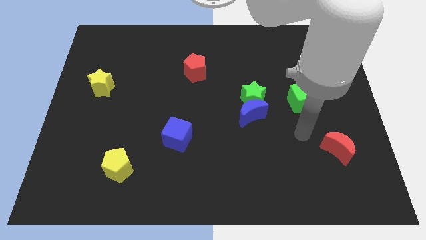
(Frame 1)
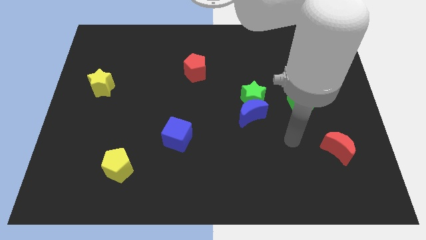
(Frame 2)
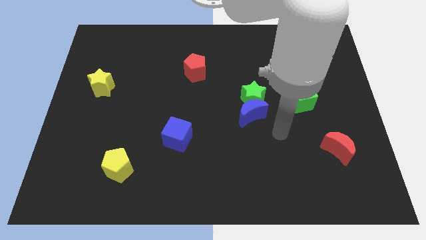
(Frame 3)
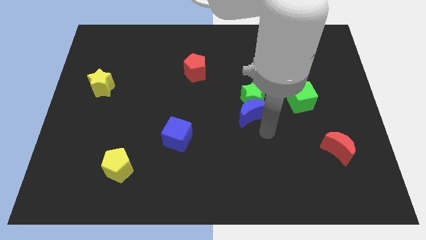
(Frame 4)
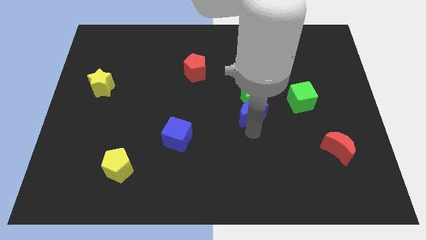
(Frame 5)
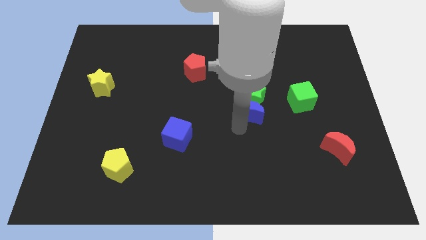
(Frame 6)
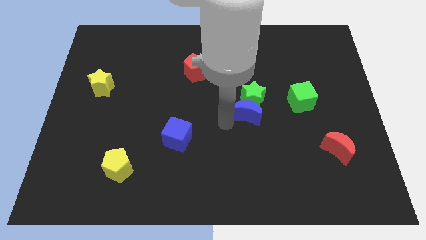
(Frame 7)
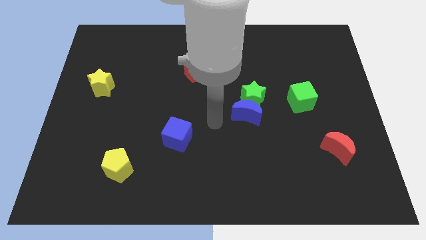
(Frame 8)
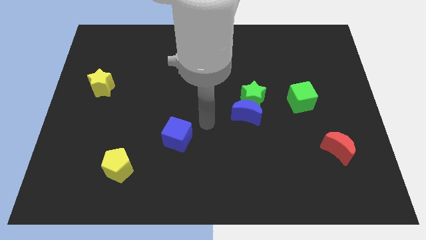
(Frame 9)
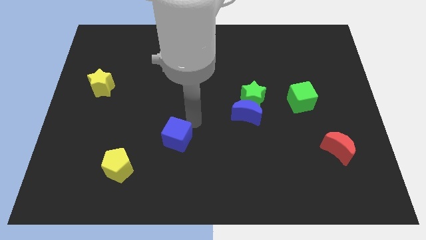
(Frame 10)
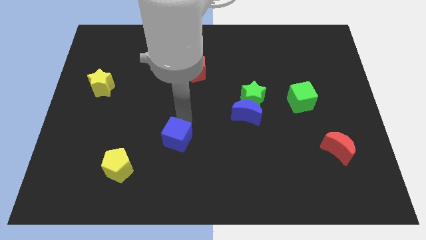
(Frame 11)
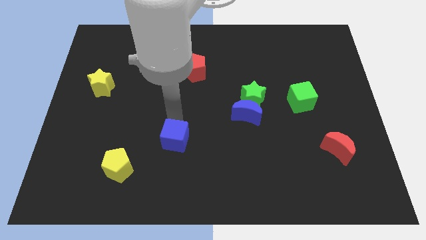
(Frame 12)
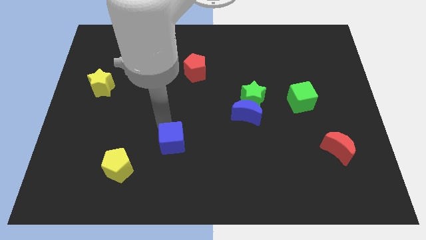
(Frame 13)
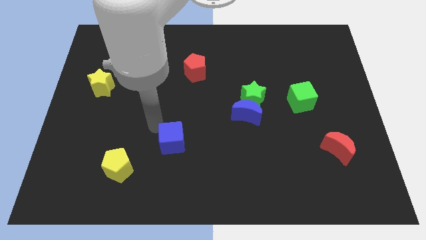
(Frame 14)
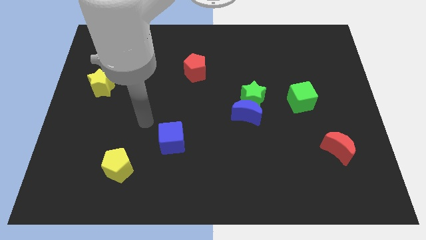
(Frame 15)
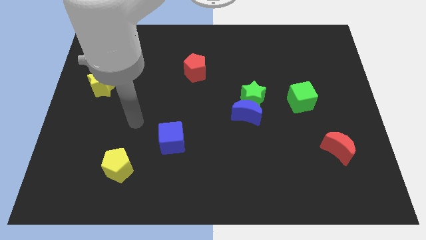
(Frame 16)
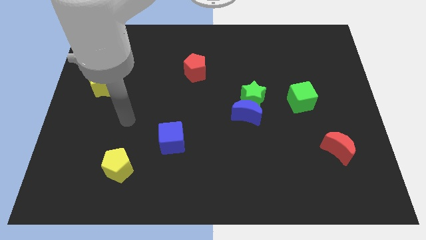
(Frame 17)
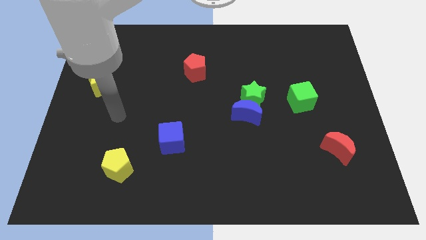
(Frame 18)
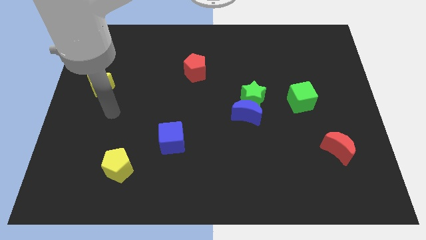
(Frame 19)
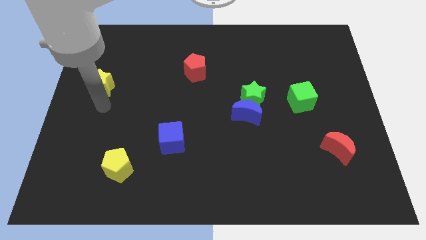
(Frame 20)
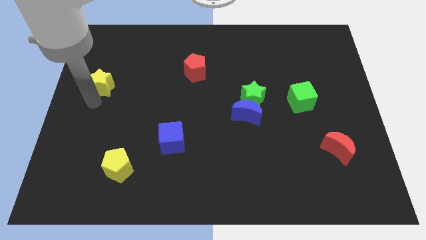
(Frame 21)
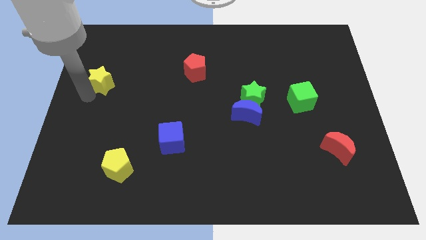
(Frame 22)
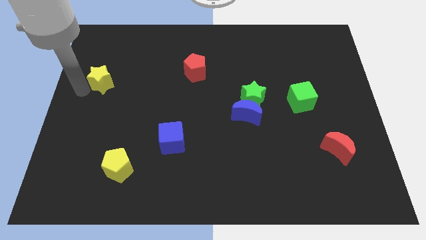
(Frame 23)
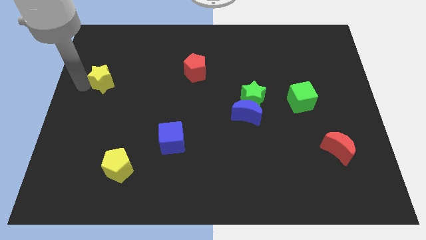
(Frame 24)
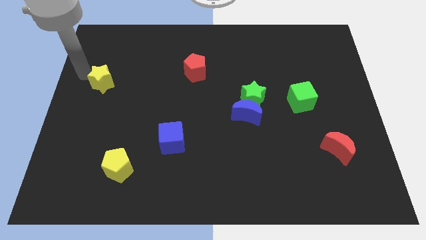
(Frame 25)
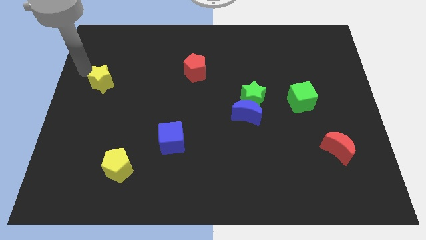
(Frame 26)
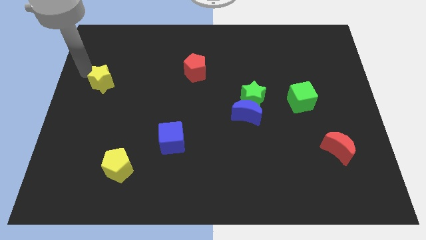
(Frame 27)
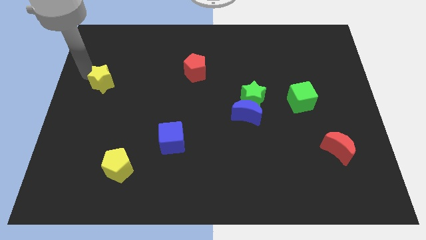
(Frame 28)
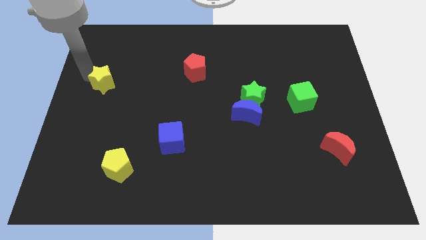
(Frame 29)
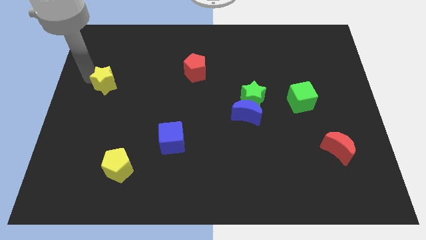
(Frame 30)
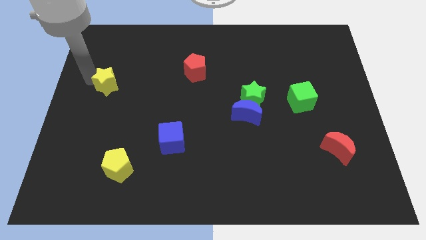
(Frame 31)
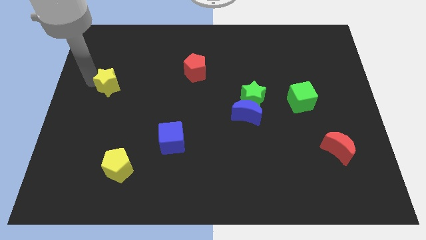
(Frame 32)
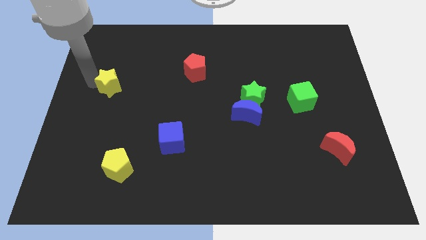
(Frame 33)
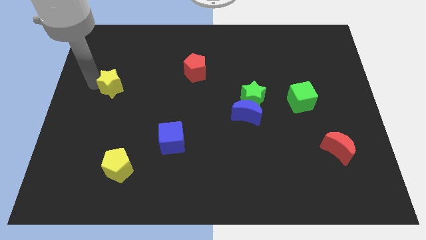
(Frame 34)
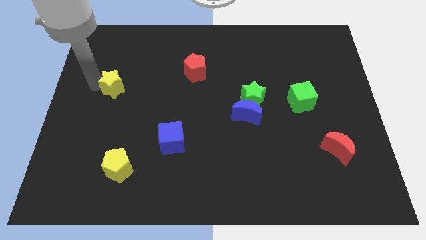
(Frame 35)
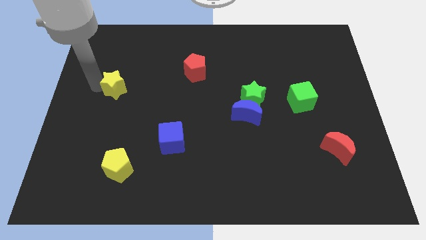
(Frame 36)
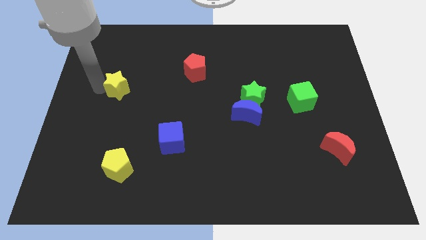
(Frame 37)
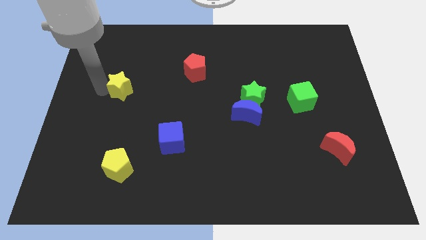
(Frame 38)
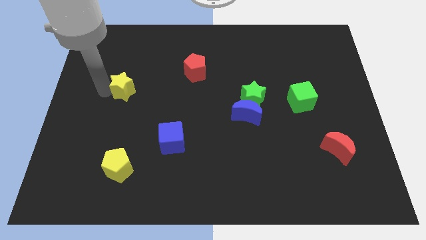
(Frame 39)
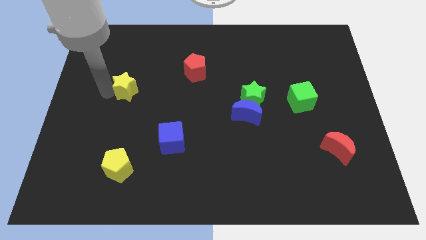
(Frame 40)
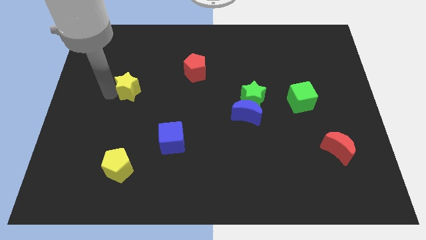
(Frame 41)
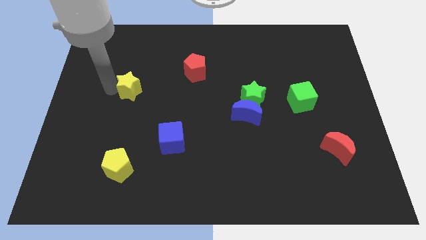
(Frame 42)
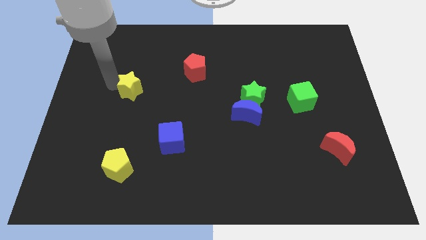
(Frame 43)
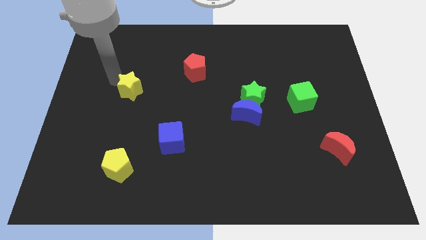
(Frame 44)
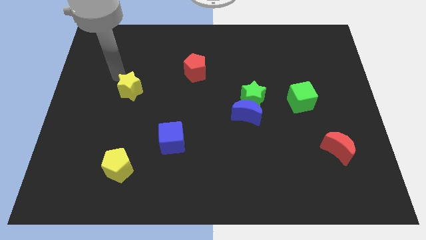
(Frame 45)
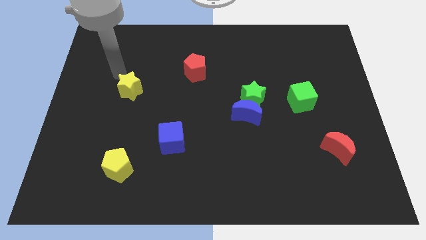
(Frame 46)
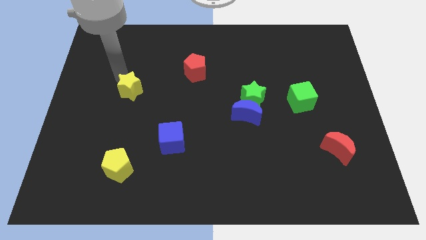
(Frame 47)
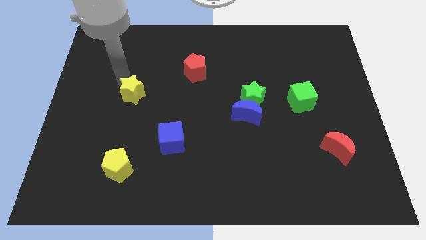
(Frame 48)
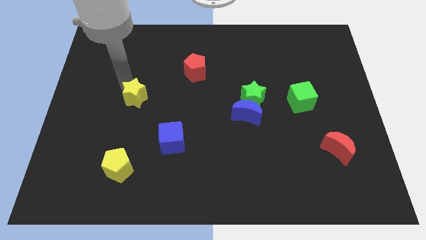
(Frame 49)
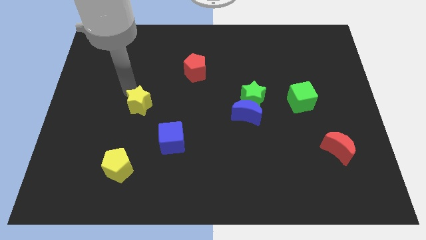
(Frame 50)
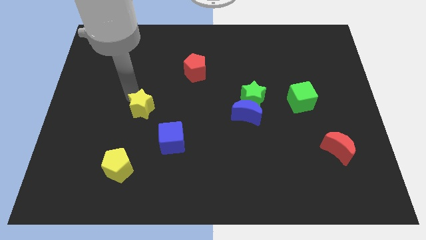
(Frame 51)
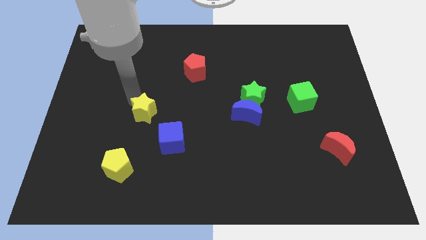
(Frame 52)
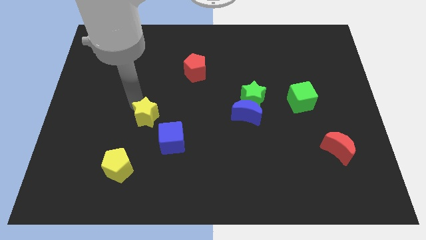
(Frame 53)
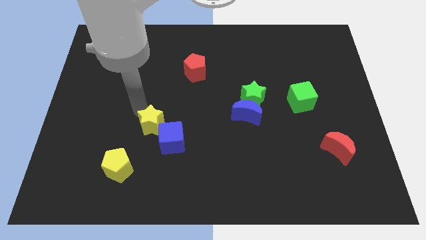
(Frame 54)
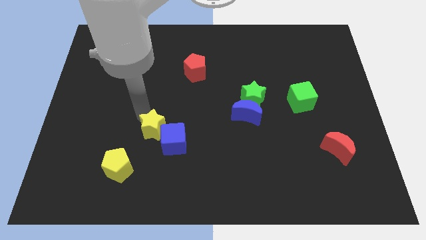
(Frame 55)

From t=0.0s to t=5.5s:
move the yellow star to the blue cube

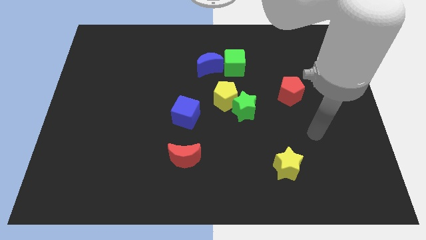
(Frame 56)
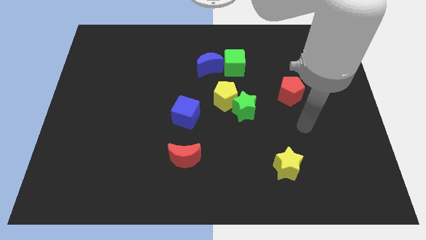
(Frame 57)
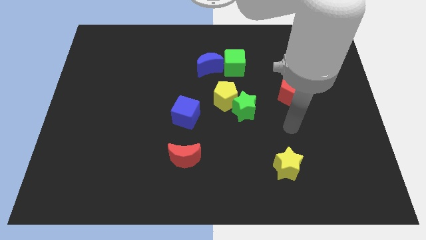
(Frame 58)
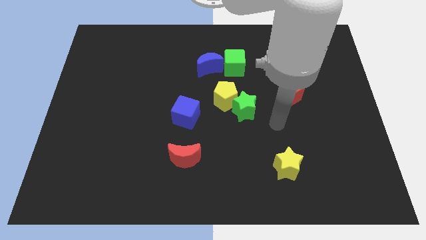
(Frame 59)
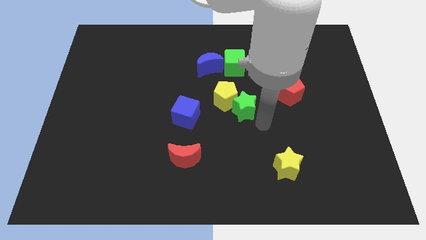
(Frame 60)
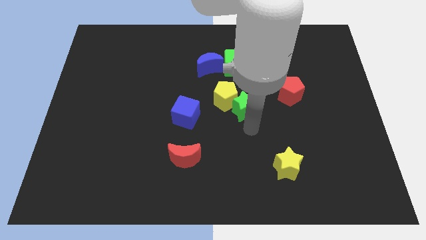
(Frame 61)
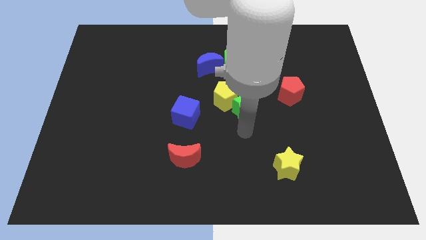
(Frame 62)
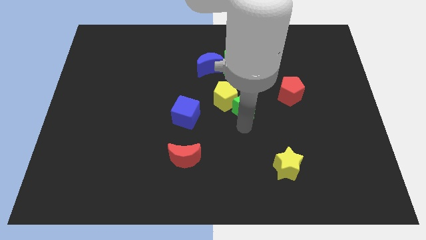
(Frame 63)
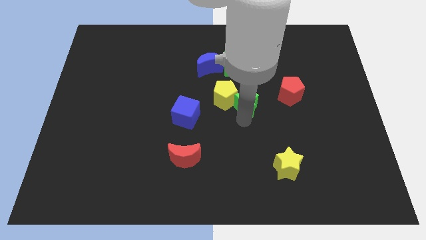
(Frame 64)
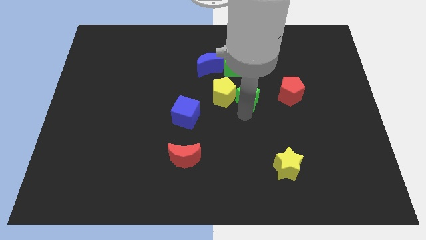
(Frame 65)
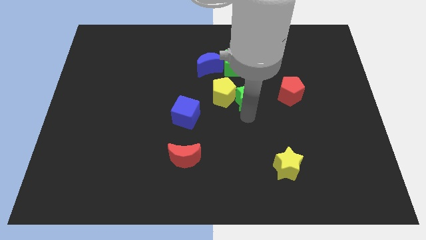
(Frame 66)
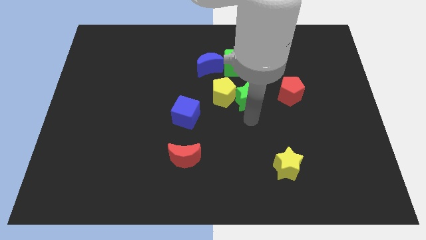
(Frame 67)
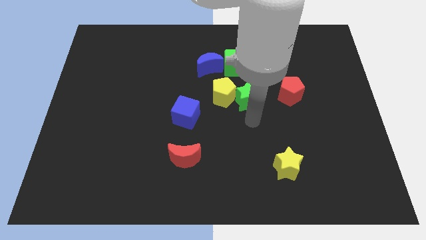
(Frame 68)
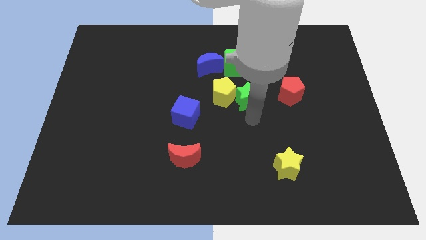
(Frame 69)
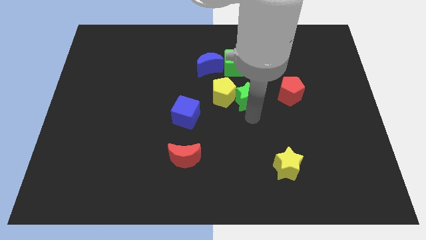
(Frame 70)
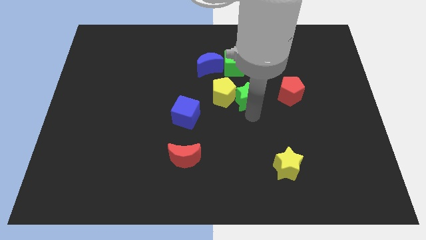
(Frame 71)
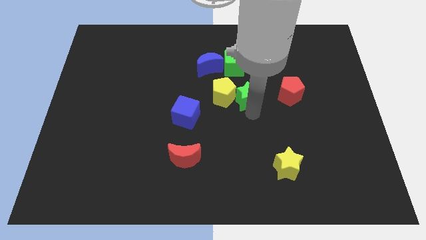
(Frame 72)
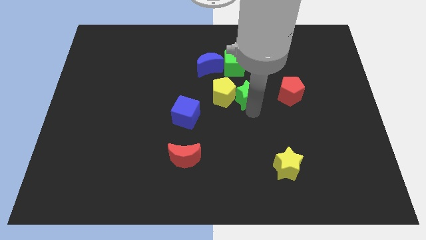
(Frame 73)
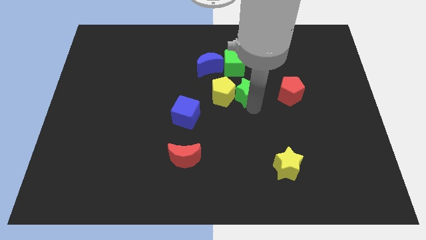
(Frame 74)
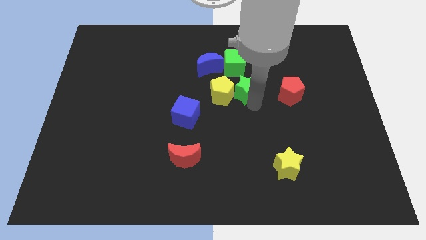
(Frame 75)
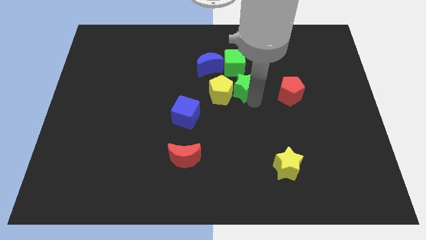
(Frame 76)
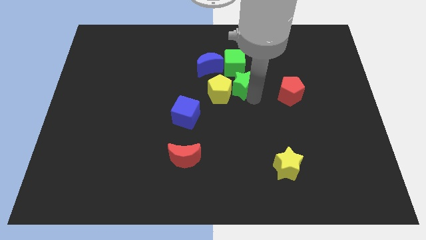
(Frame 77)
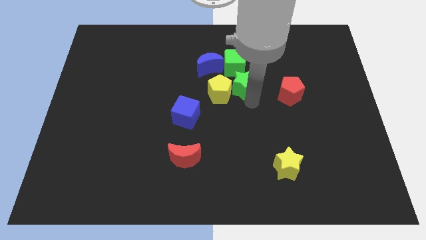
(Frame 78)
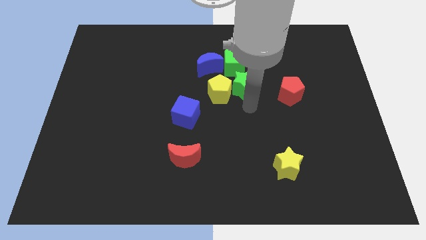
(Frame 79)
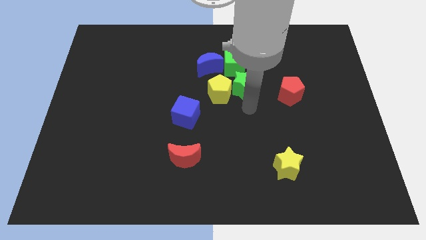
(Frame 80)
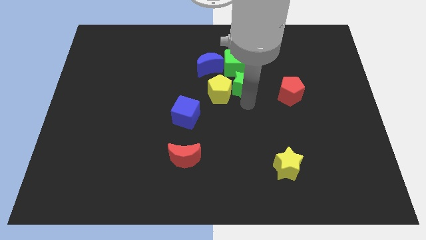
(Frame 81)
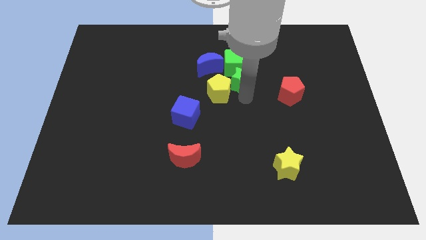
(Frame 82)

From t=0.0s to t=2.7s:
push the green star towards the green cube
